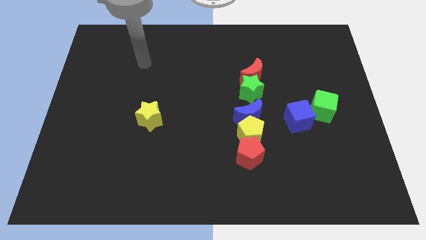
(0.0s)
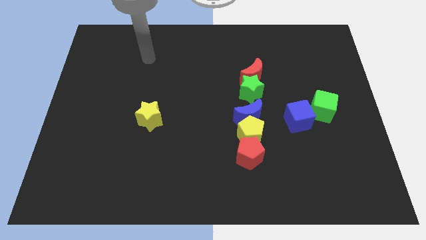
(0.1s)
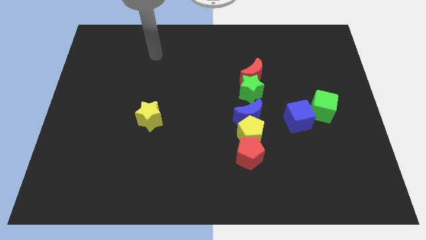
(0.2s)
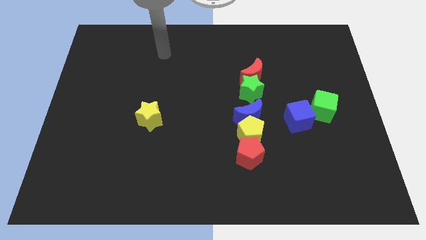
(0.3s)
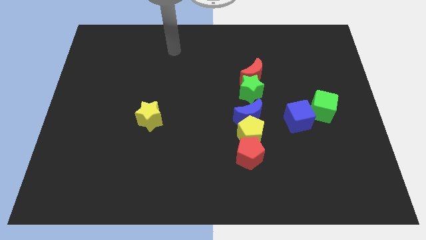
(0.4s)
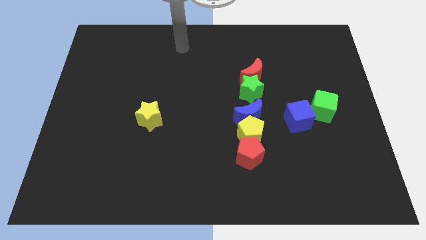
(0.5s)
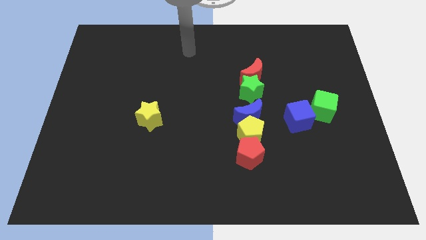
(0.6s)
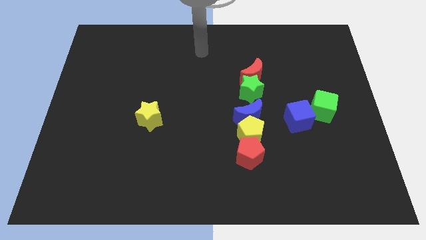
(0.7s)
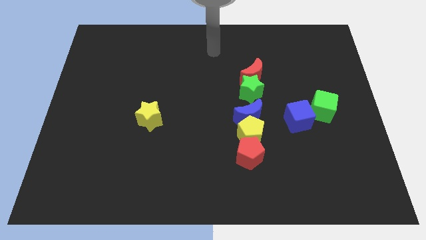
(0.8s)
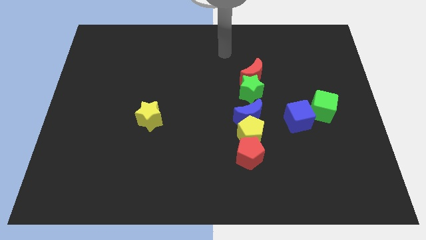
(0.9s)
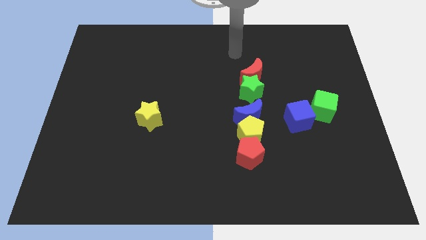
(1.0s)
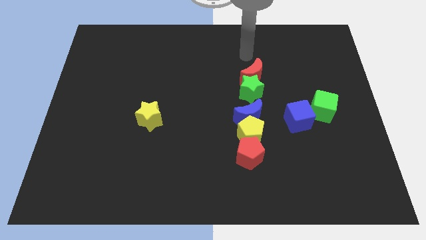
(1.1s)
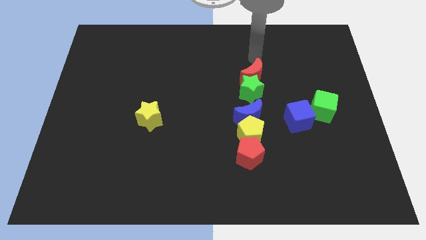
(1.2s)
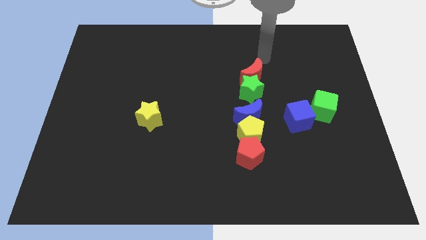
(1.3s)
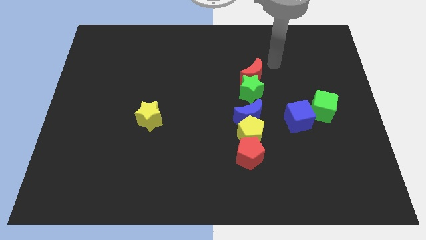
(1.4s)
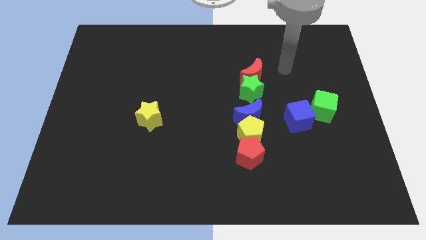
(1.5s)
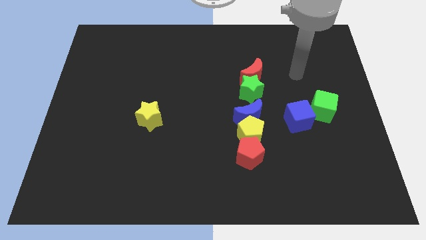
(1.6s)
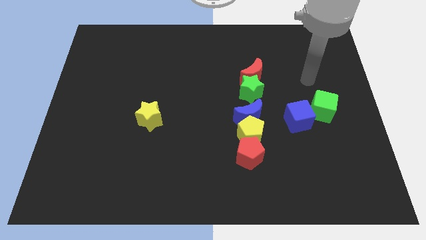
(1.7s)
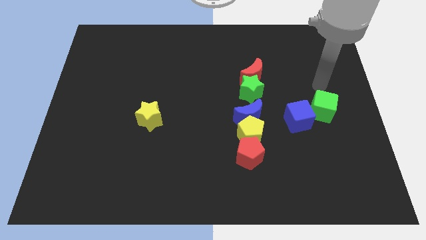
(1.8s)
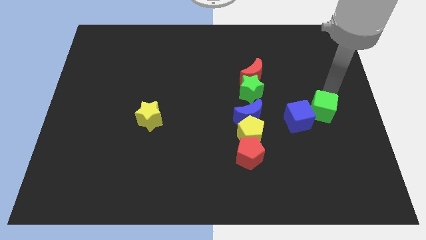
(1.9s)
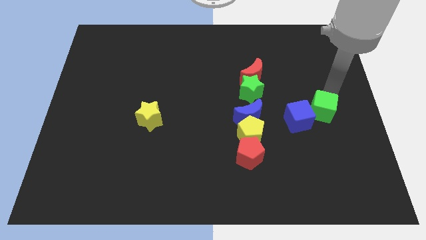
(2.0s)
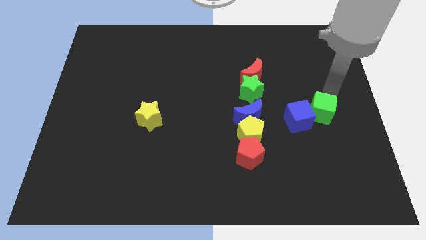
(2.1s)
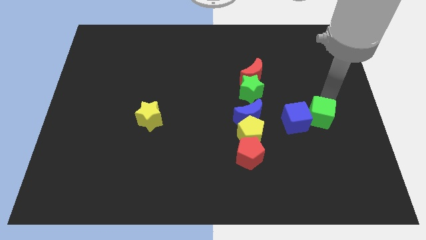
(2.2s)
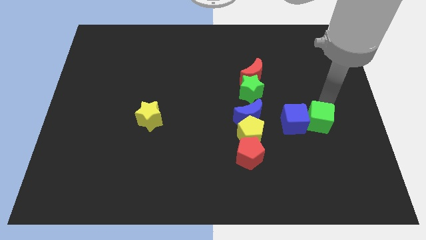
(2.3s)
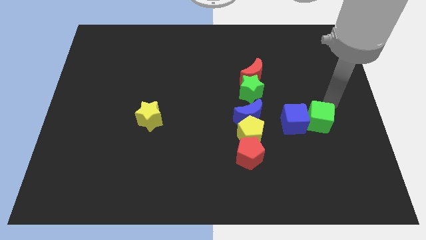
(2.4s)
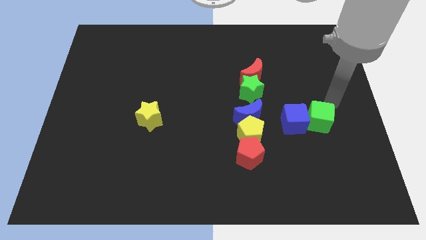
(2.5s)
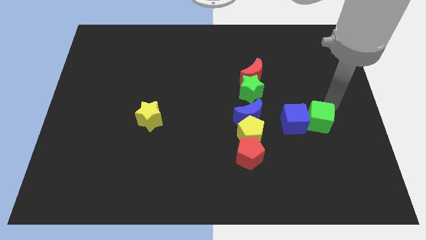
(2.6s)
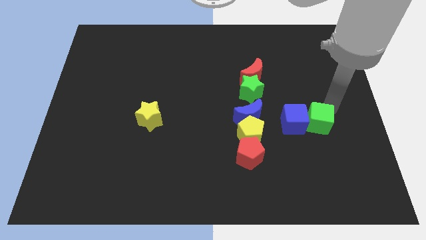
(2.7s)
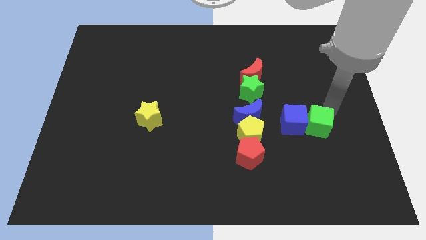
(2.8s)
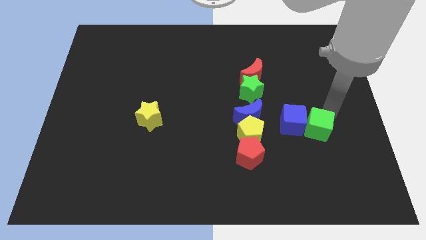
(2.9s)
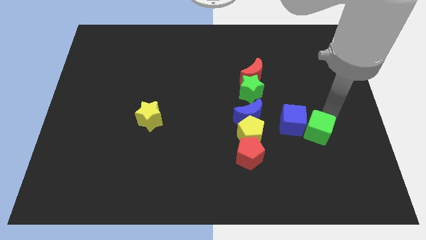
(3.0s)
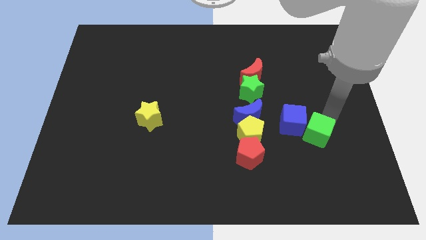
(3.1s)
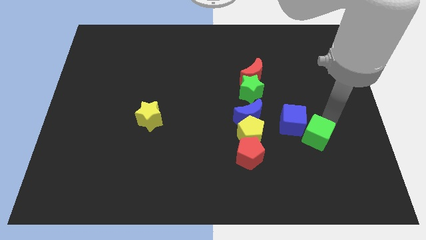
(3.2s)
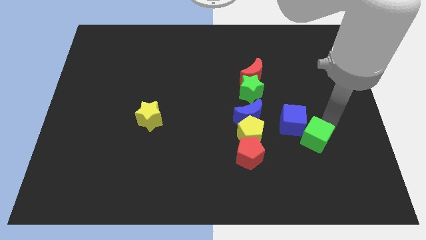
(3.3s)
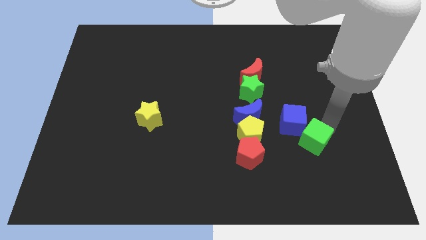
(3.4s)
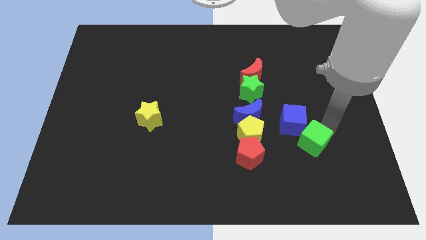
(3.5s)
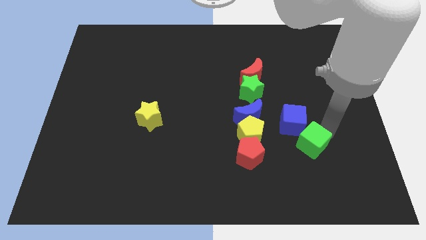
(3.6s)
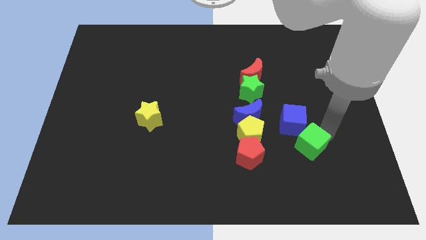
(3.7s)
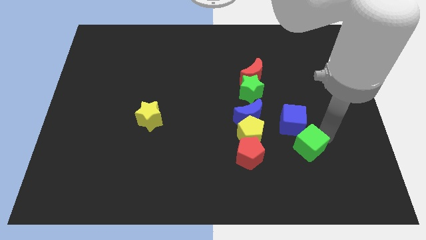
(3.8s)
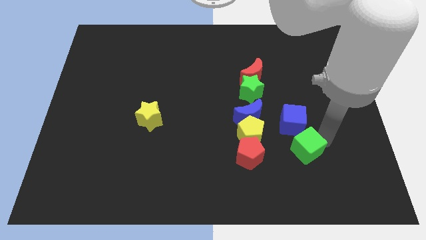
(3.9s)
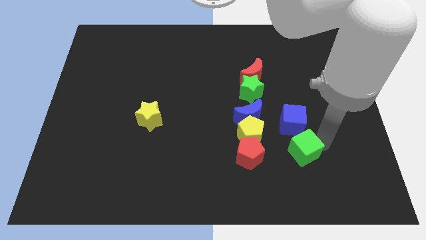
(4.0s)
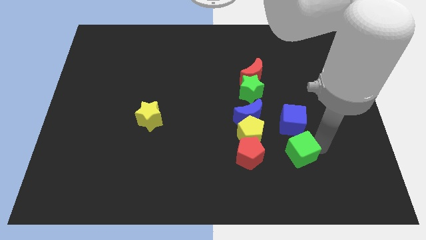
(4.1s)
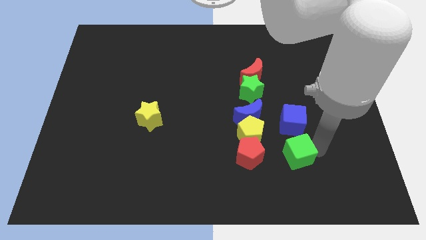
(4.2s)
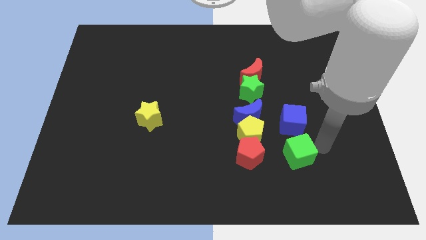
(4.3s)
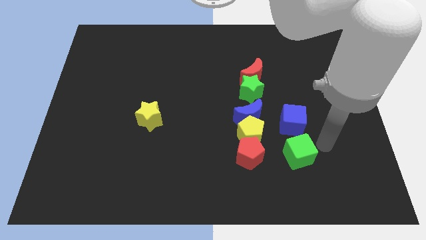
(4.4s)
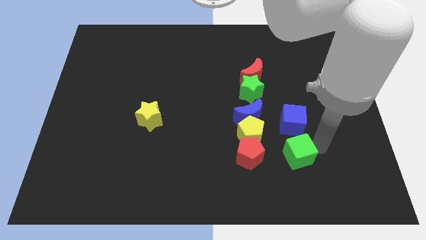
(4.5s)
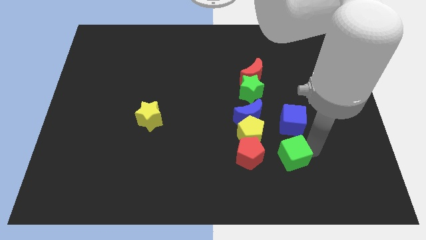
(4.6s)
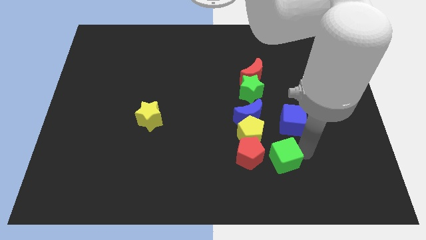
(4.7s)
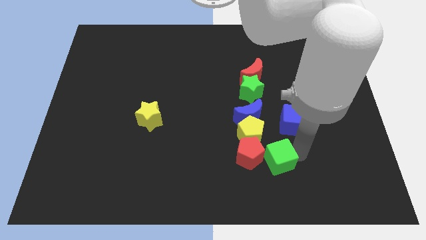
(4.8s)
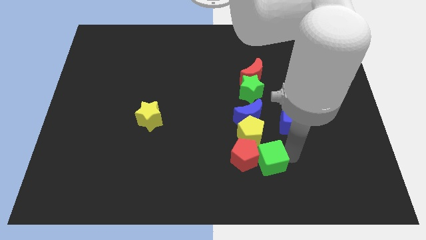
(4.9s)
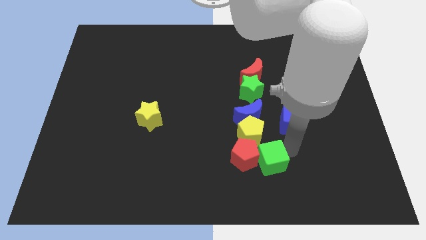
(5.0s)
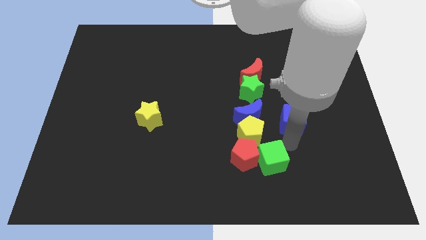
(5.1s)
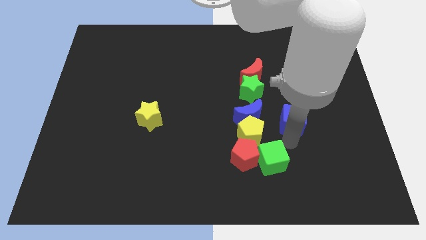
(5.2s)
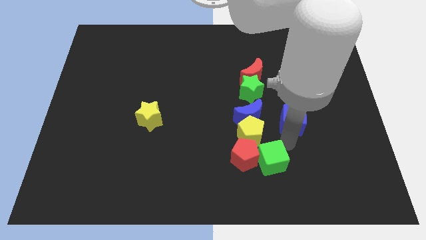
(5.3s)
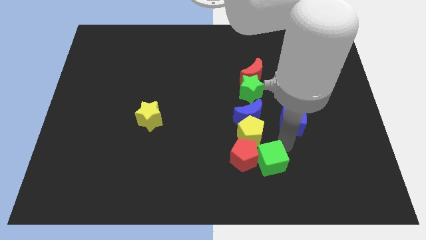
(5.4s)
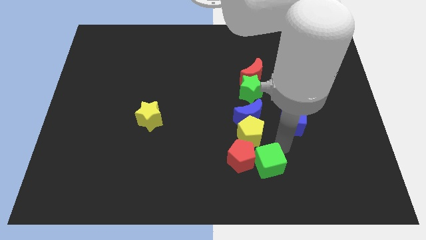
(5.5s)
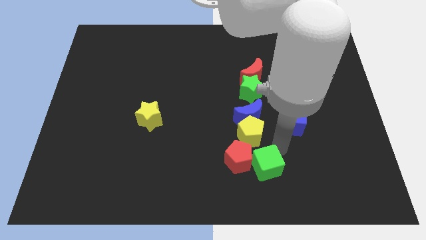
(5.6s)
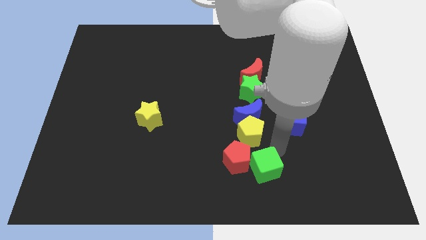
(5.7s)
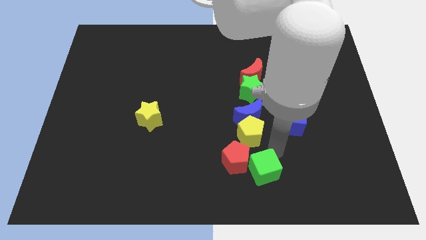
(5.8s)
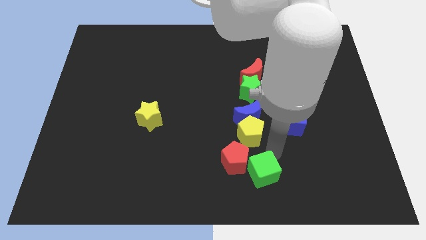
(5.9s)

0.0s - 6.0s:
move the green cube to the bottom side

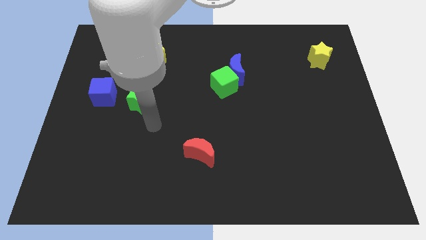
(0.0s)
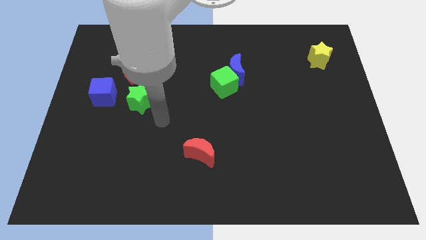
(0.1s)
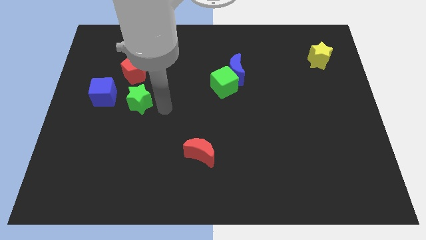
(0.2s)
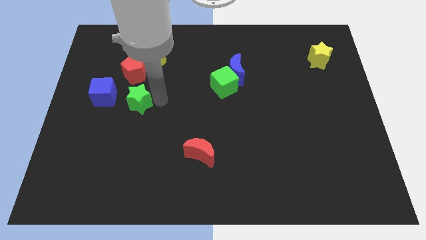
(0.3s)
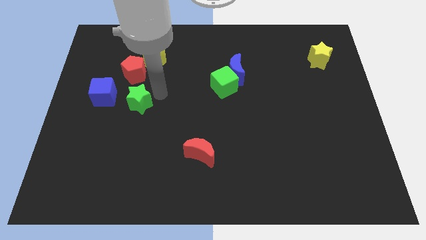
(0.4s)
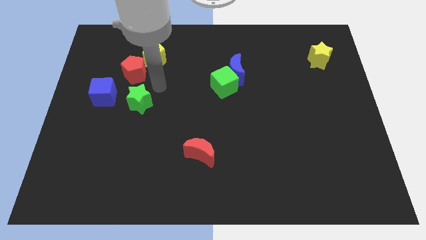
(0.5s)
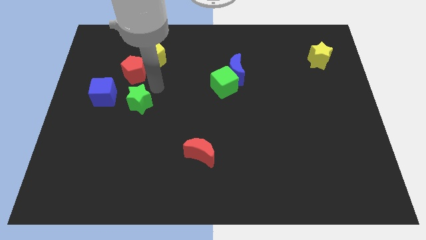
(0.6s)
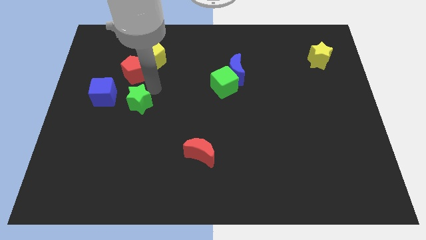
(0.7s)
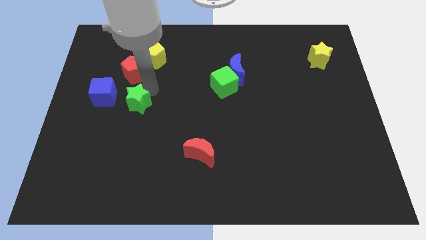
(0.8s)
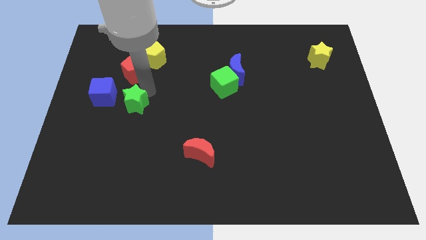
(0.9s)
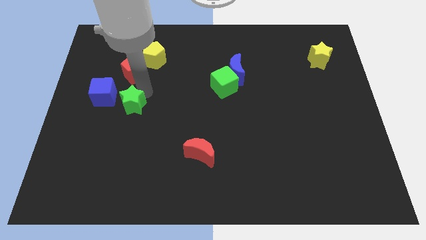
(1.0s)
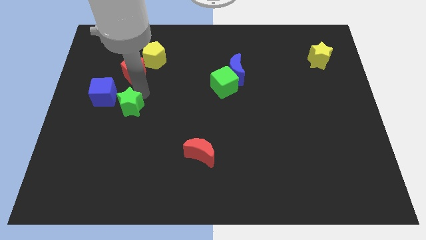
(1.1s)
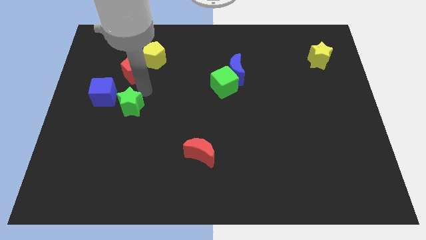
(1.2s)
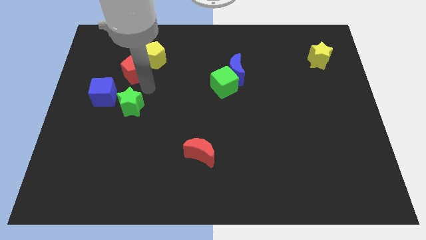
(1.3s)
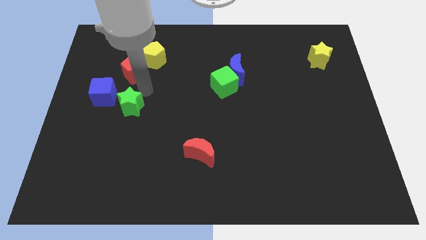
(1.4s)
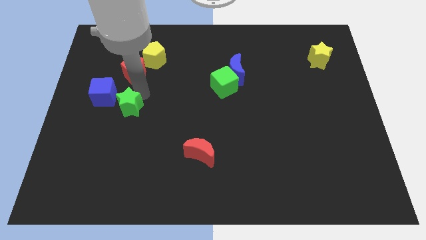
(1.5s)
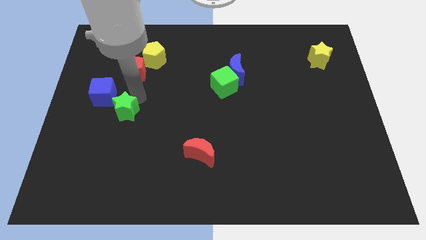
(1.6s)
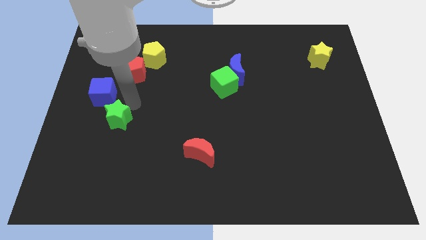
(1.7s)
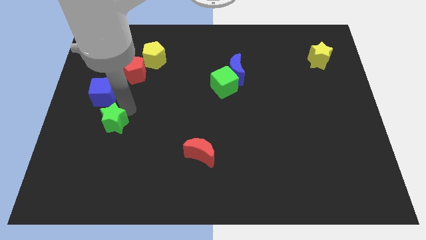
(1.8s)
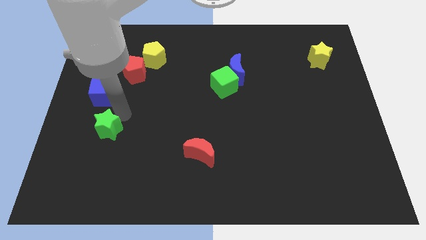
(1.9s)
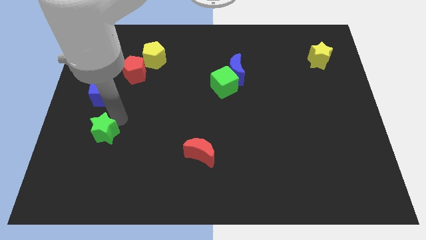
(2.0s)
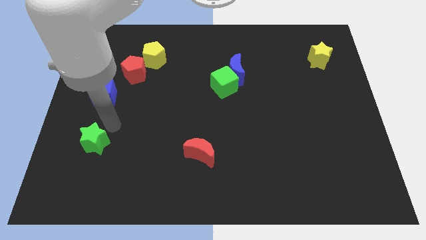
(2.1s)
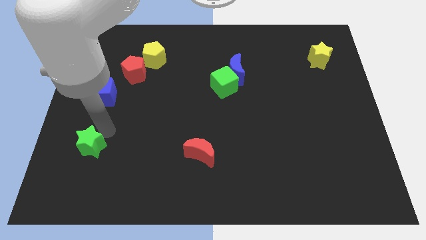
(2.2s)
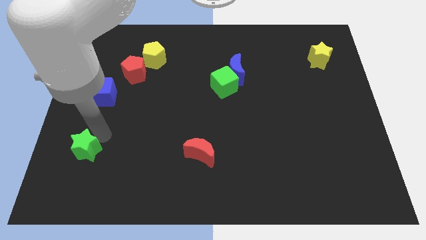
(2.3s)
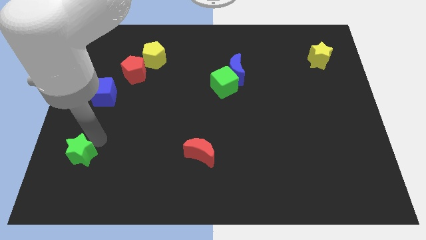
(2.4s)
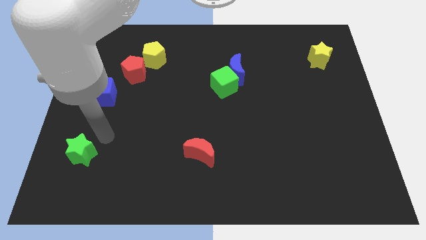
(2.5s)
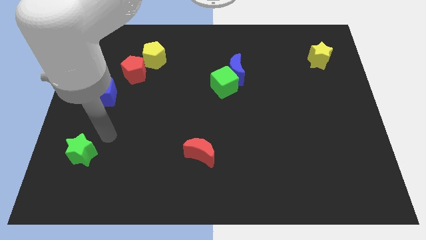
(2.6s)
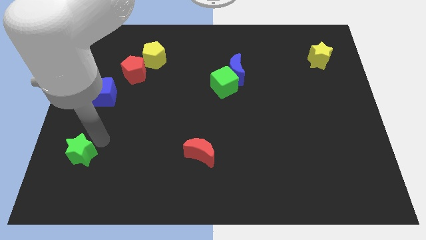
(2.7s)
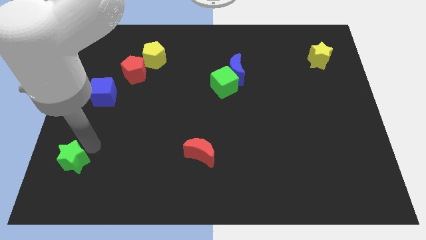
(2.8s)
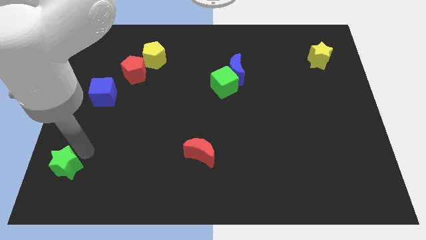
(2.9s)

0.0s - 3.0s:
push the green star to the lower left corner
